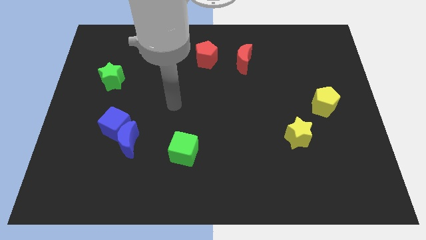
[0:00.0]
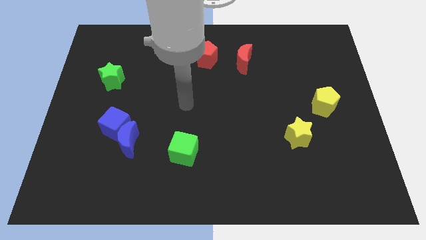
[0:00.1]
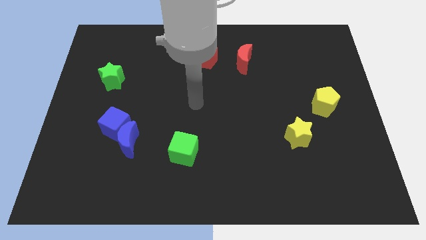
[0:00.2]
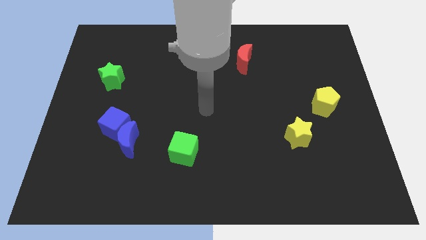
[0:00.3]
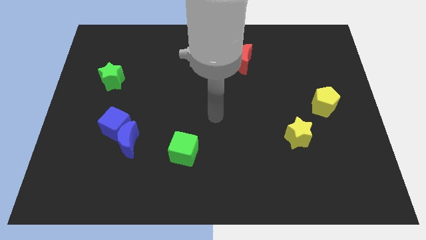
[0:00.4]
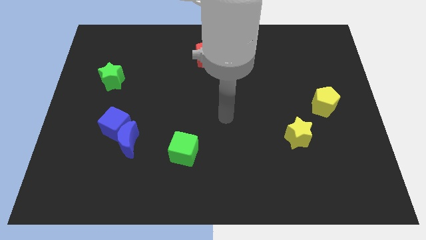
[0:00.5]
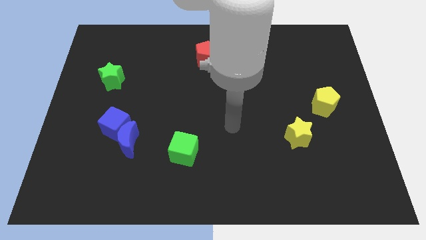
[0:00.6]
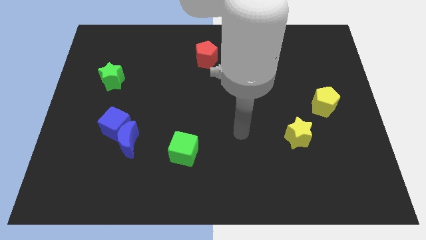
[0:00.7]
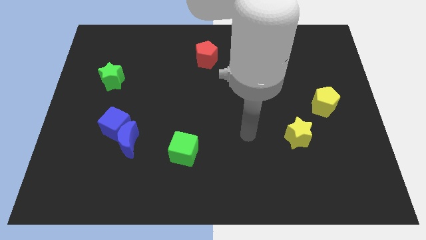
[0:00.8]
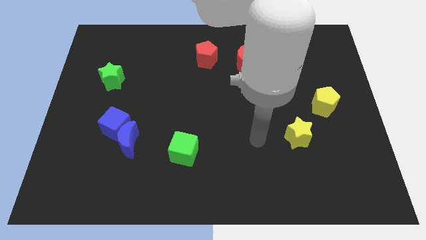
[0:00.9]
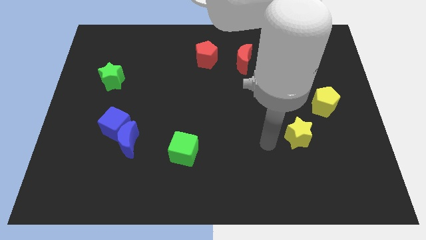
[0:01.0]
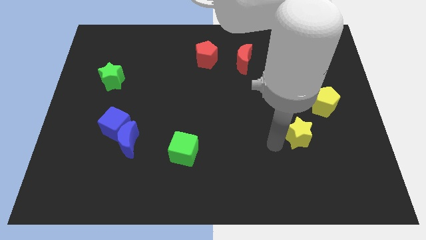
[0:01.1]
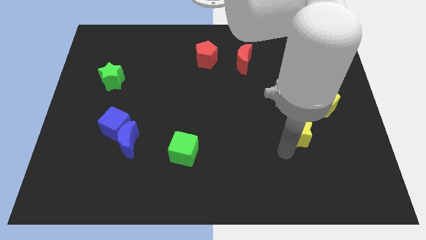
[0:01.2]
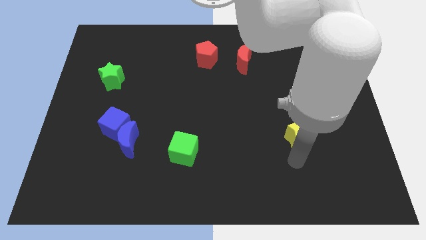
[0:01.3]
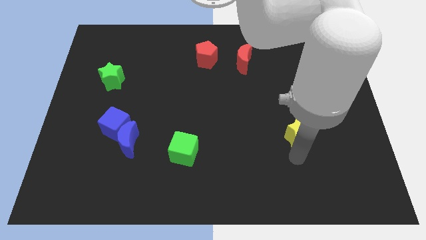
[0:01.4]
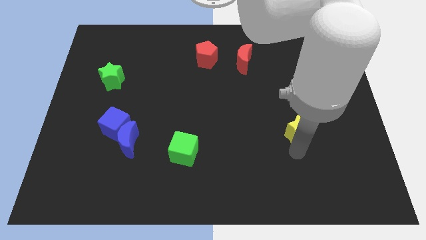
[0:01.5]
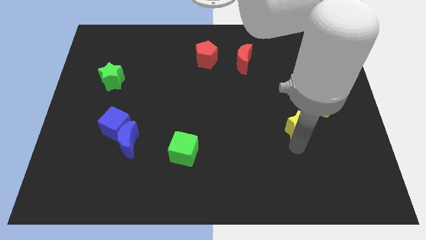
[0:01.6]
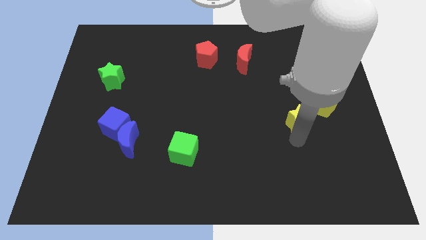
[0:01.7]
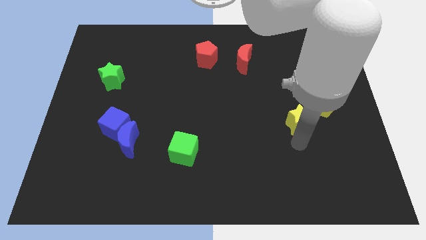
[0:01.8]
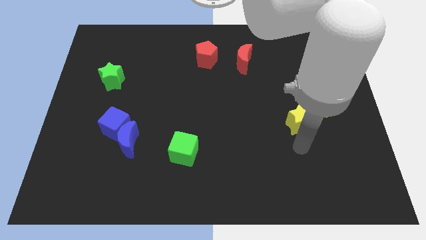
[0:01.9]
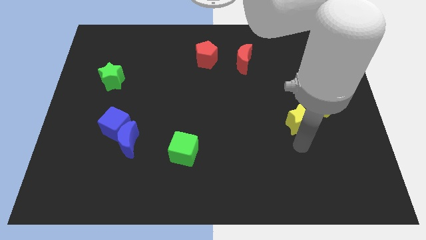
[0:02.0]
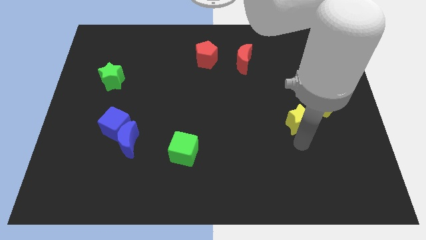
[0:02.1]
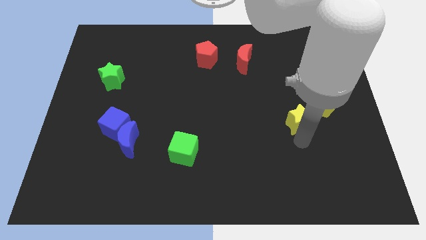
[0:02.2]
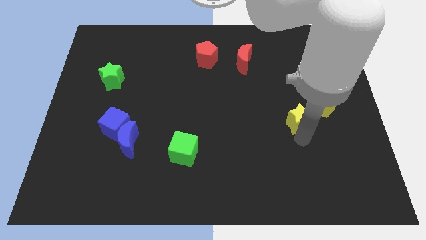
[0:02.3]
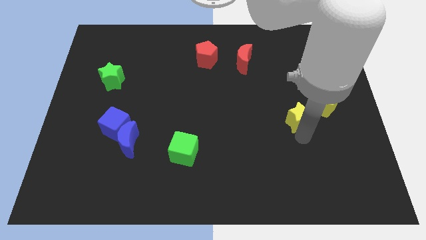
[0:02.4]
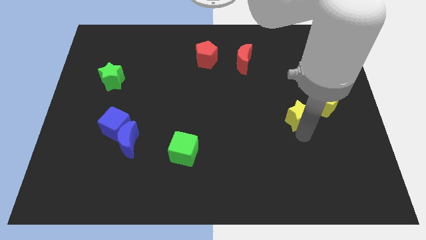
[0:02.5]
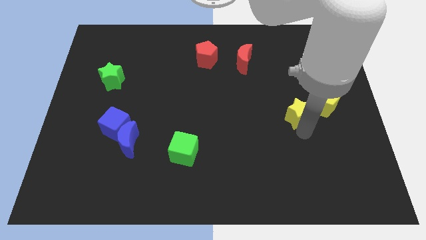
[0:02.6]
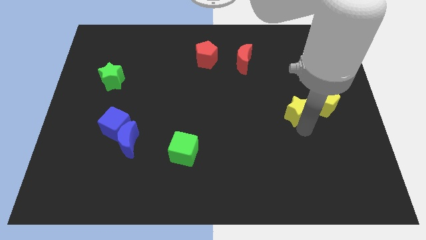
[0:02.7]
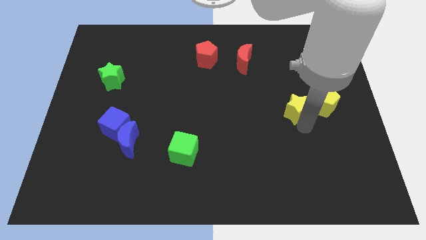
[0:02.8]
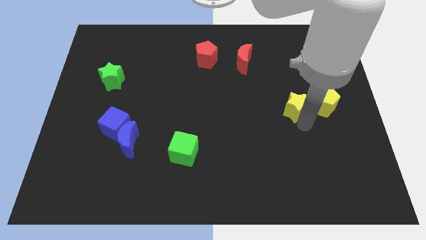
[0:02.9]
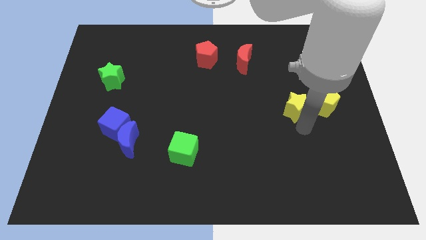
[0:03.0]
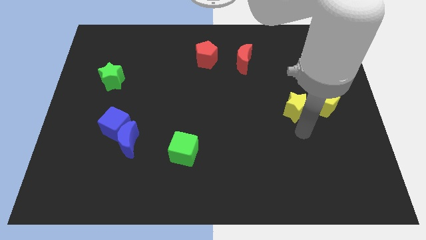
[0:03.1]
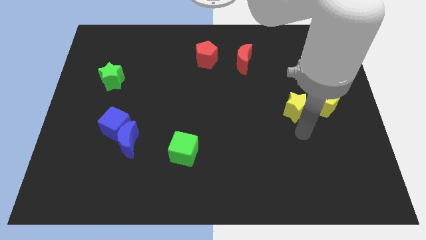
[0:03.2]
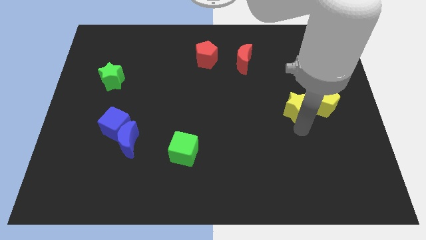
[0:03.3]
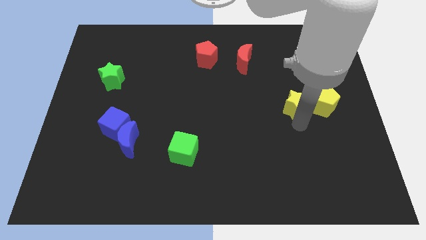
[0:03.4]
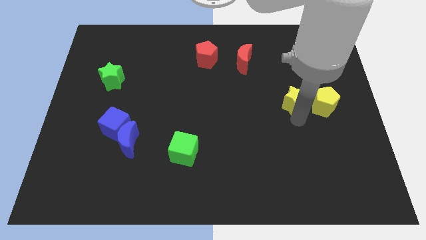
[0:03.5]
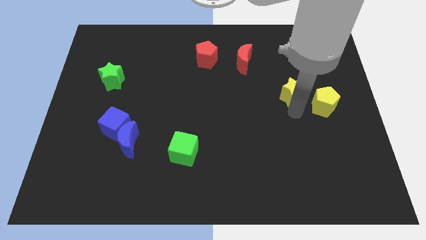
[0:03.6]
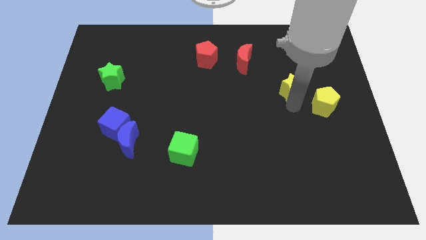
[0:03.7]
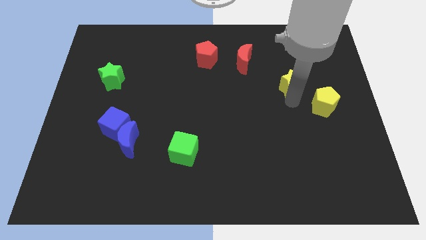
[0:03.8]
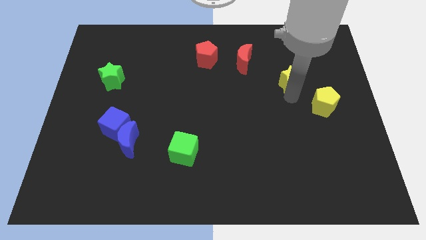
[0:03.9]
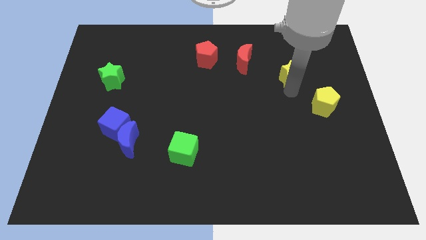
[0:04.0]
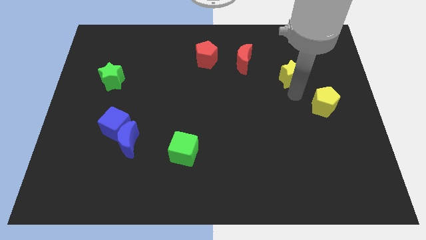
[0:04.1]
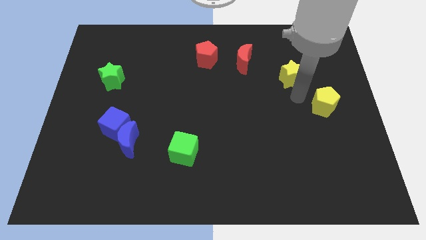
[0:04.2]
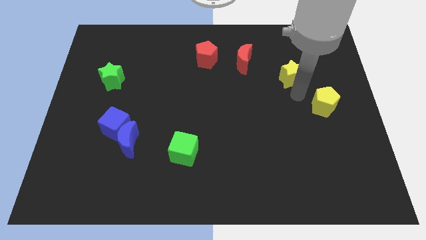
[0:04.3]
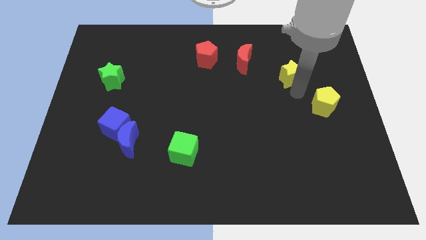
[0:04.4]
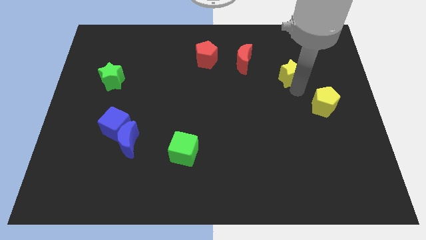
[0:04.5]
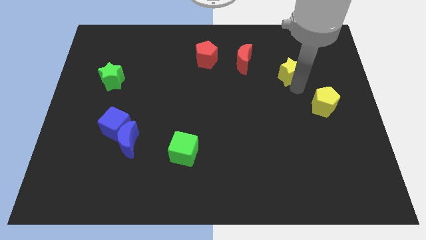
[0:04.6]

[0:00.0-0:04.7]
move the yellow star right of the red moon

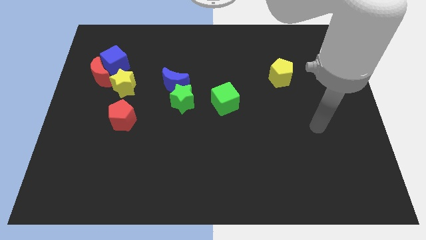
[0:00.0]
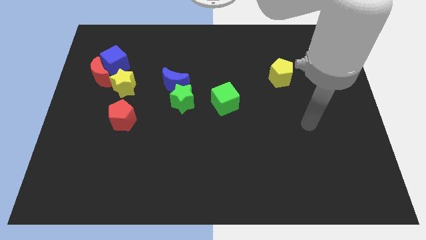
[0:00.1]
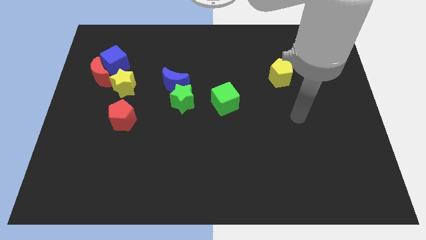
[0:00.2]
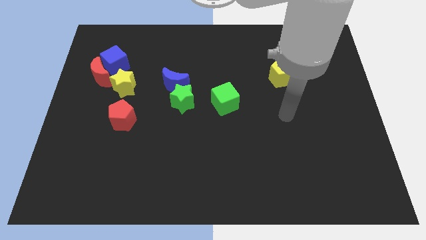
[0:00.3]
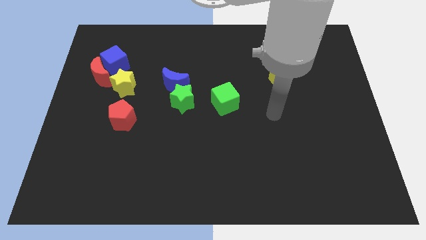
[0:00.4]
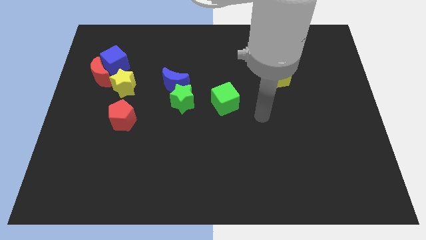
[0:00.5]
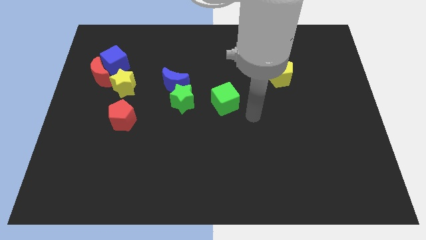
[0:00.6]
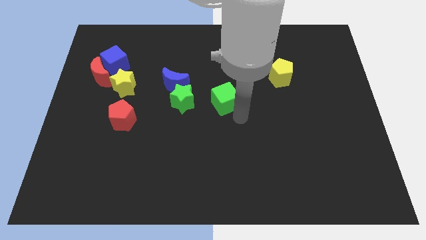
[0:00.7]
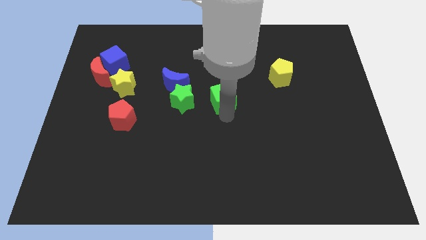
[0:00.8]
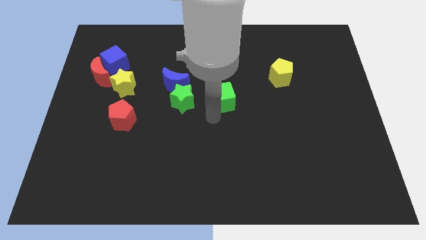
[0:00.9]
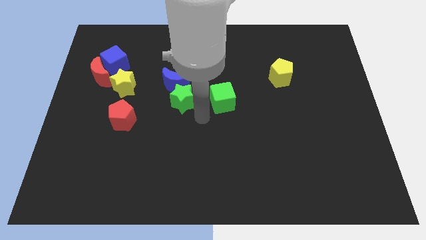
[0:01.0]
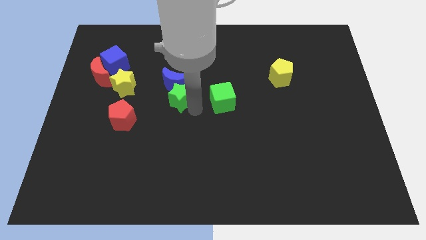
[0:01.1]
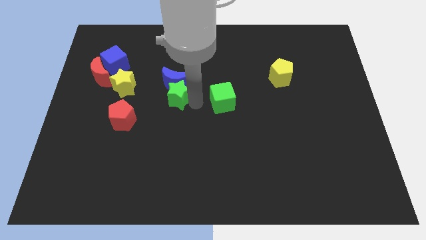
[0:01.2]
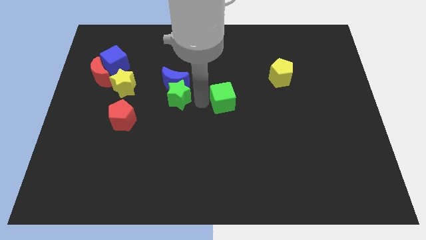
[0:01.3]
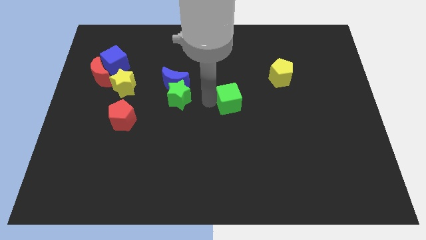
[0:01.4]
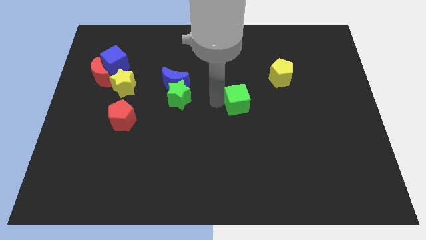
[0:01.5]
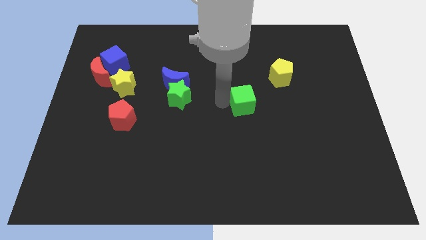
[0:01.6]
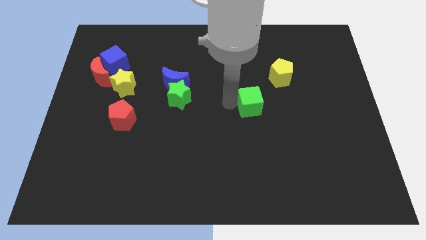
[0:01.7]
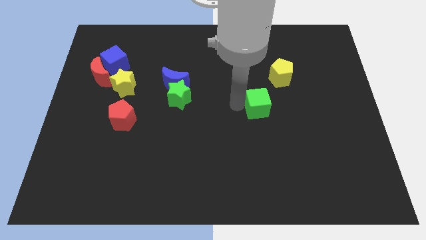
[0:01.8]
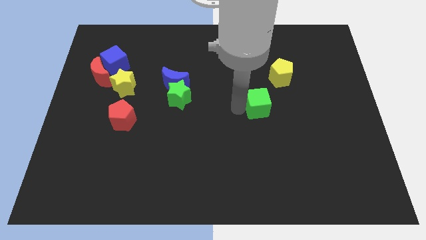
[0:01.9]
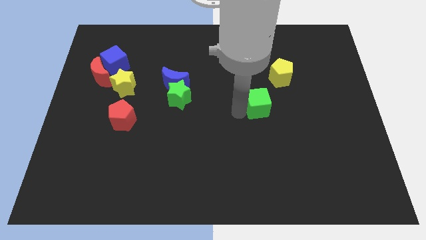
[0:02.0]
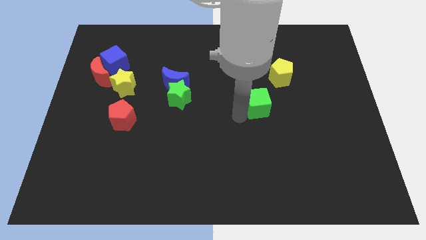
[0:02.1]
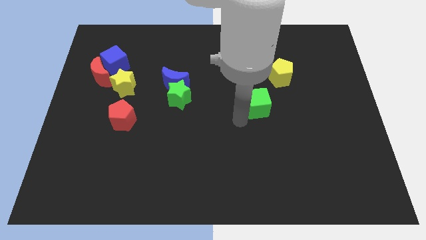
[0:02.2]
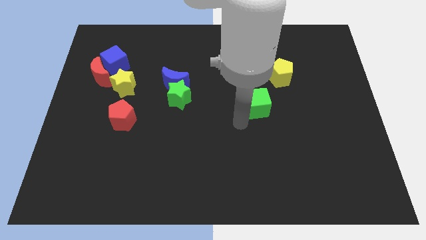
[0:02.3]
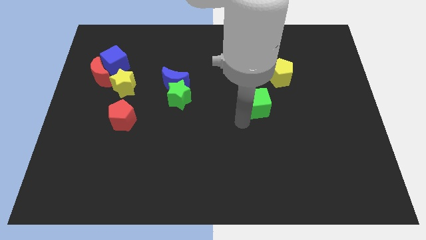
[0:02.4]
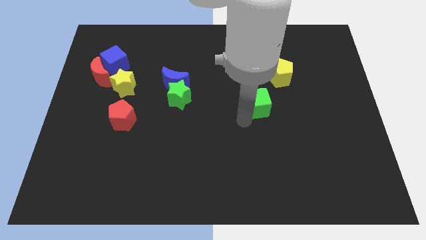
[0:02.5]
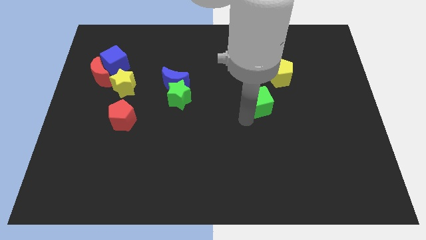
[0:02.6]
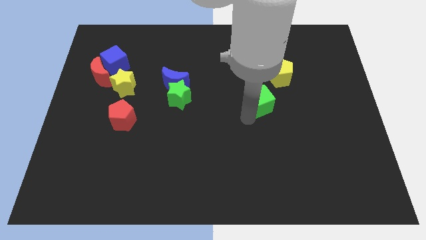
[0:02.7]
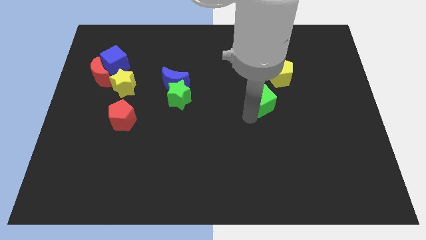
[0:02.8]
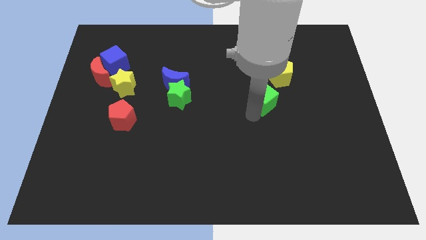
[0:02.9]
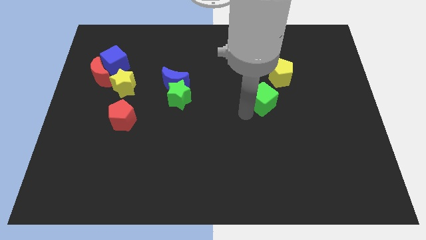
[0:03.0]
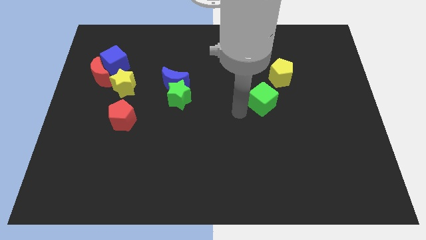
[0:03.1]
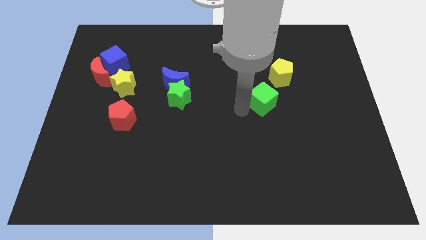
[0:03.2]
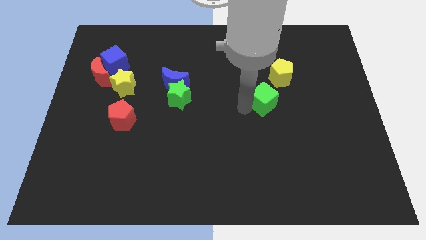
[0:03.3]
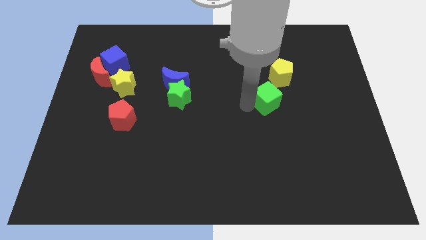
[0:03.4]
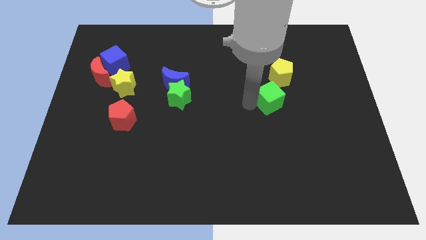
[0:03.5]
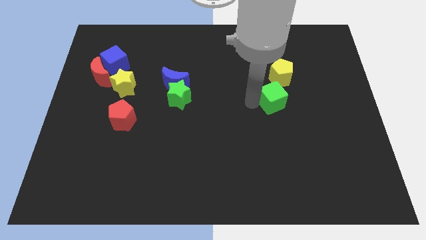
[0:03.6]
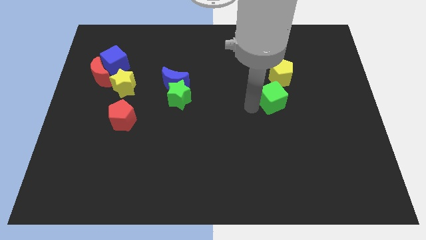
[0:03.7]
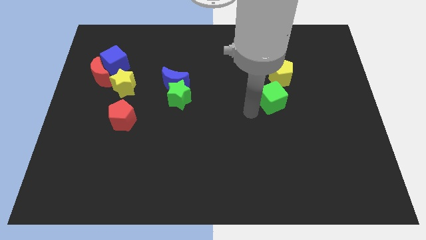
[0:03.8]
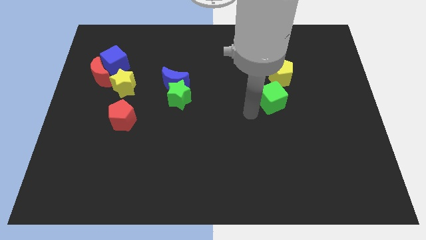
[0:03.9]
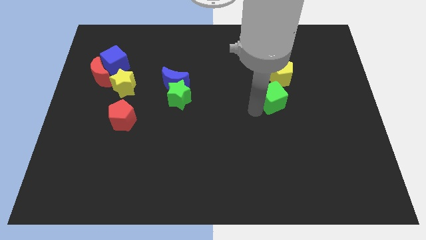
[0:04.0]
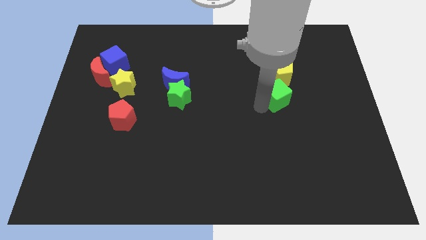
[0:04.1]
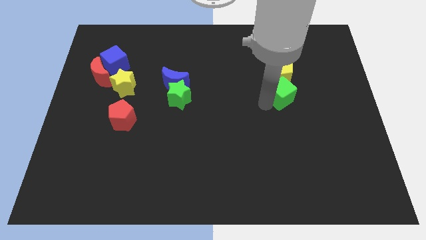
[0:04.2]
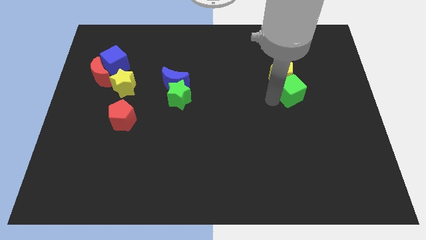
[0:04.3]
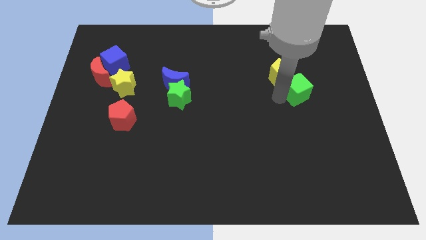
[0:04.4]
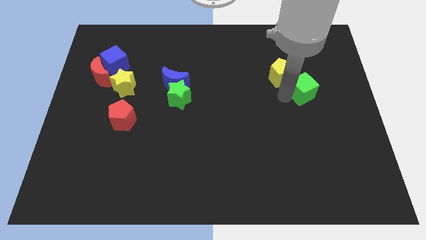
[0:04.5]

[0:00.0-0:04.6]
put the green cube just right of the yellow pentagon
